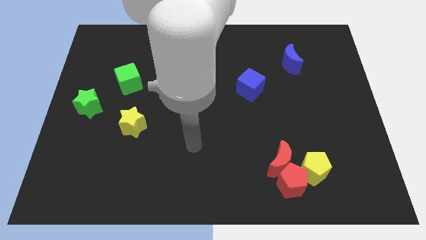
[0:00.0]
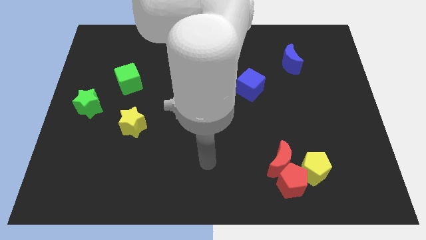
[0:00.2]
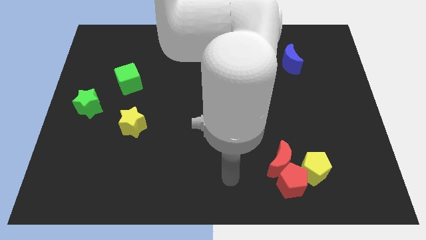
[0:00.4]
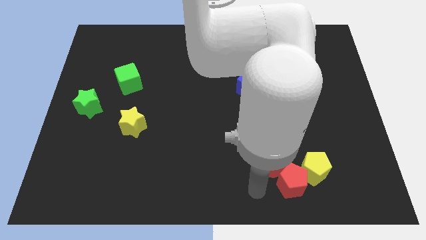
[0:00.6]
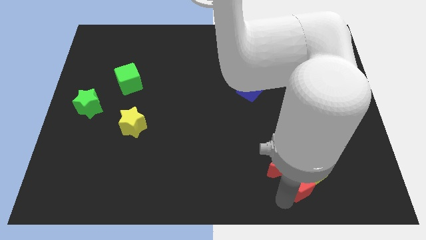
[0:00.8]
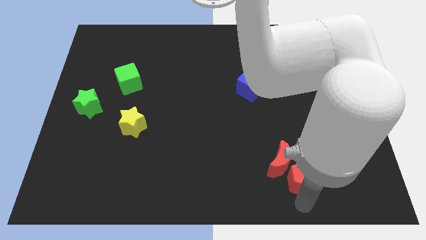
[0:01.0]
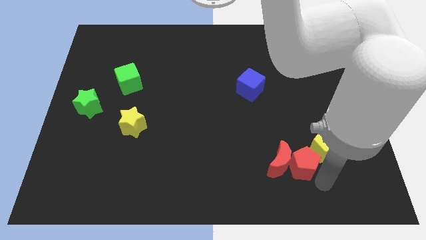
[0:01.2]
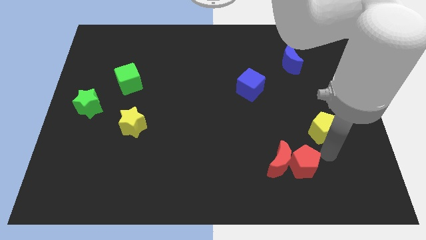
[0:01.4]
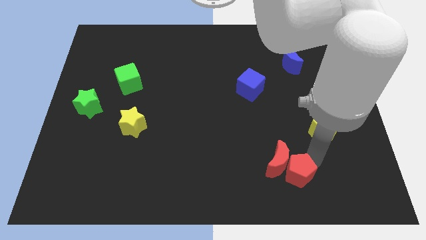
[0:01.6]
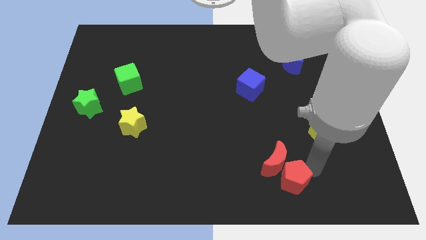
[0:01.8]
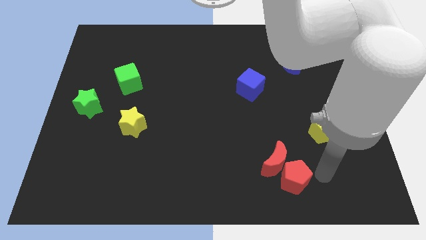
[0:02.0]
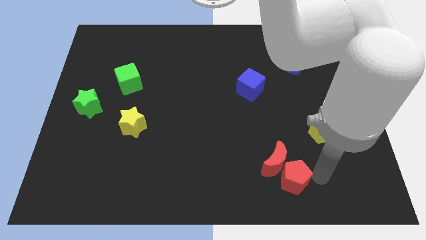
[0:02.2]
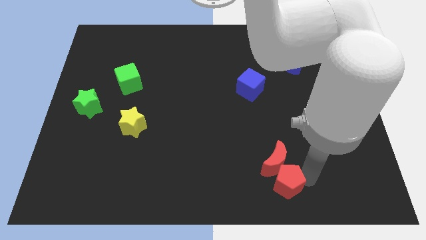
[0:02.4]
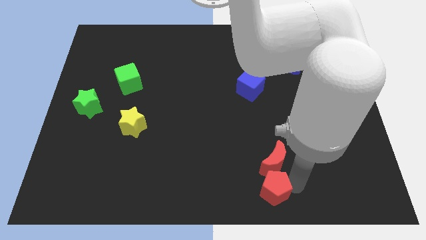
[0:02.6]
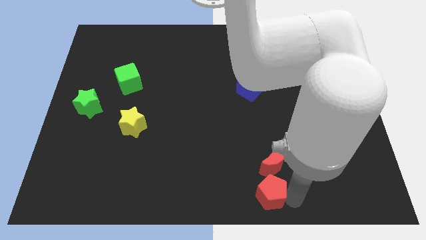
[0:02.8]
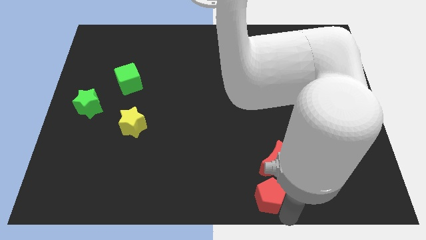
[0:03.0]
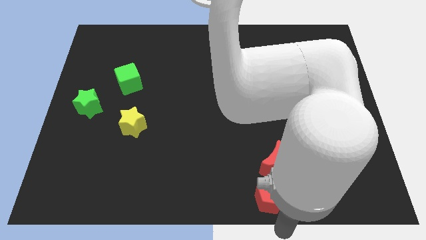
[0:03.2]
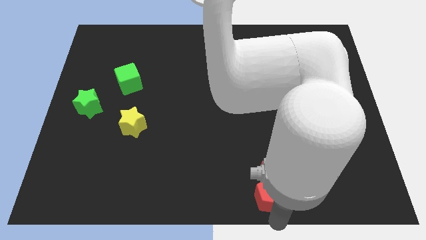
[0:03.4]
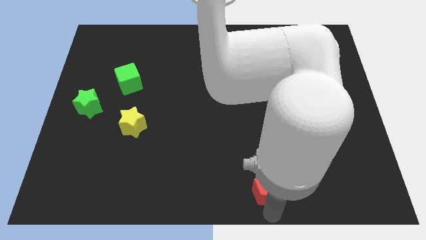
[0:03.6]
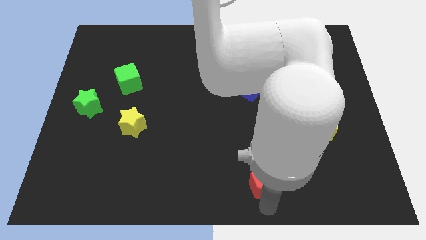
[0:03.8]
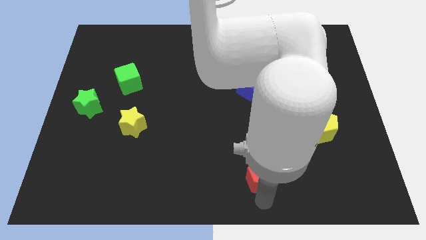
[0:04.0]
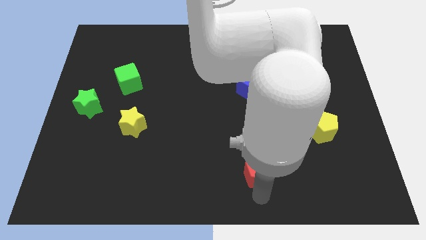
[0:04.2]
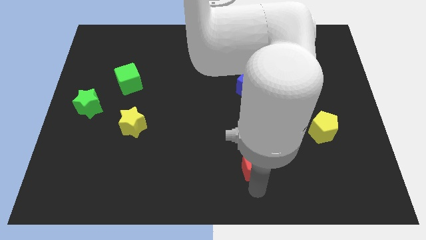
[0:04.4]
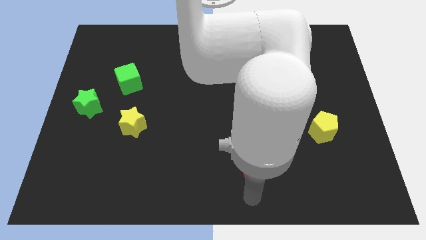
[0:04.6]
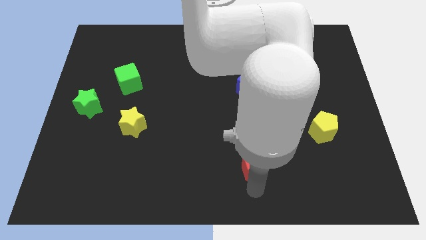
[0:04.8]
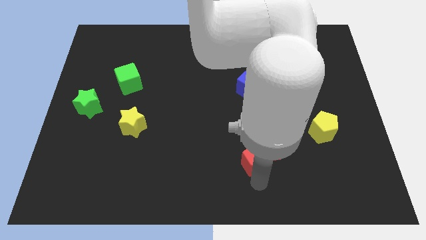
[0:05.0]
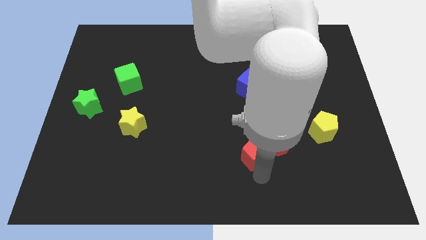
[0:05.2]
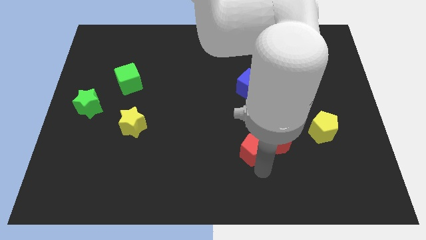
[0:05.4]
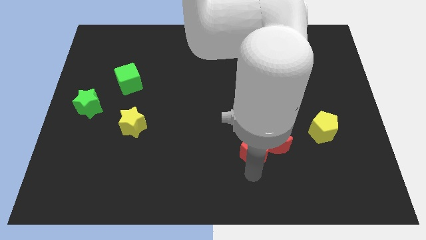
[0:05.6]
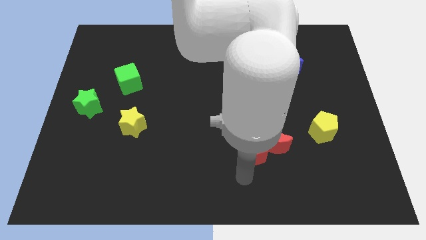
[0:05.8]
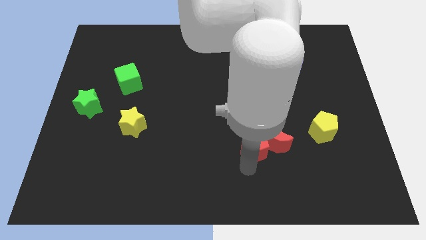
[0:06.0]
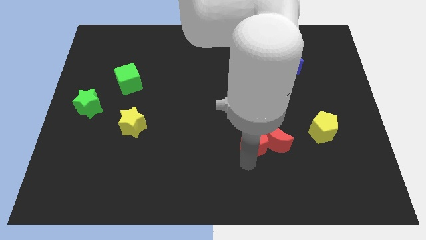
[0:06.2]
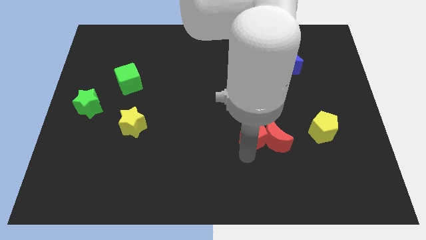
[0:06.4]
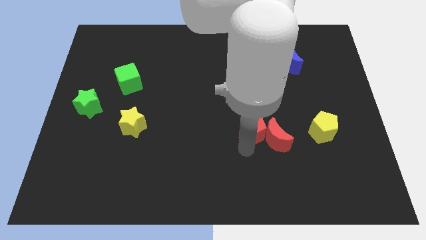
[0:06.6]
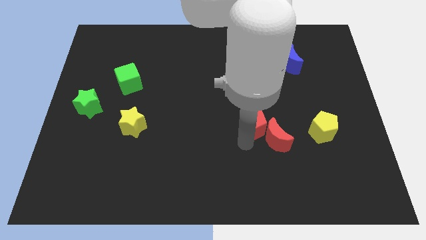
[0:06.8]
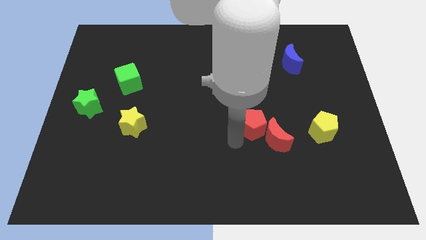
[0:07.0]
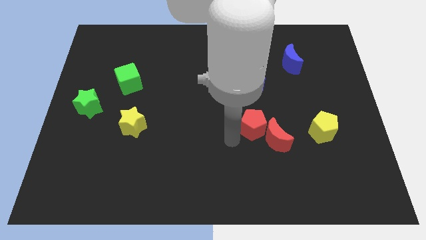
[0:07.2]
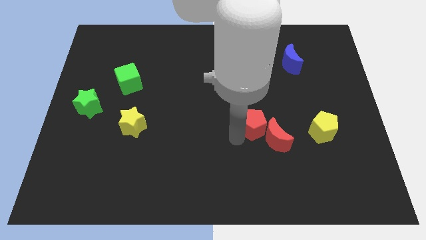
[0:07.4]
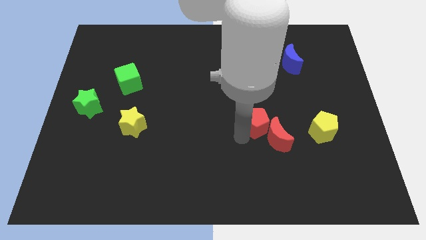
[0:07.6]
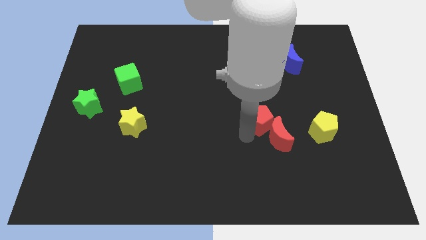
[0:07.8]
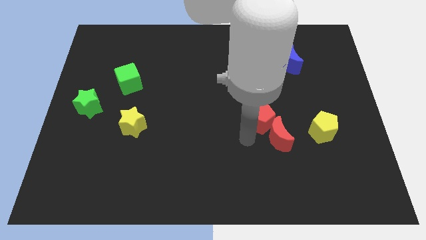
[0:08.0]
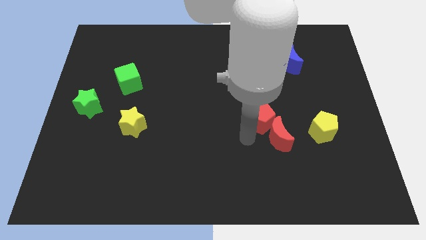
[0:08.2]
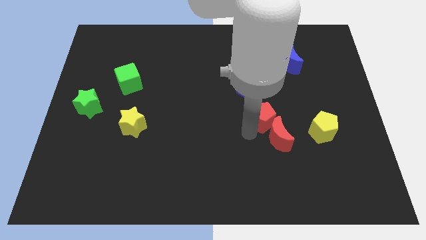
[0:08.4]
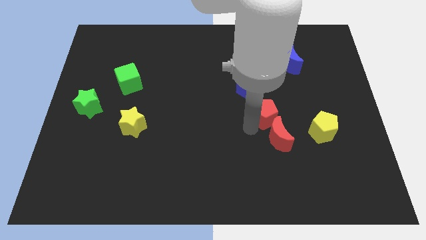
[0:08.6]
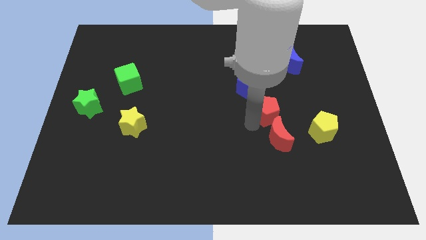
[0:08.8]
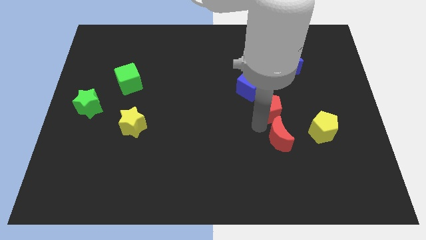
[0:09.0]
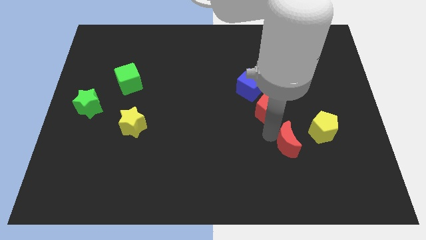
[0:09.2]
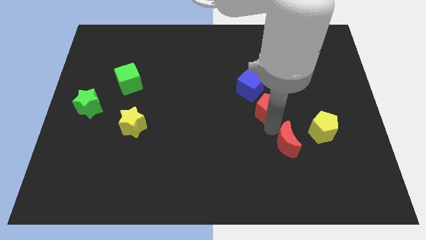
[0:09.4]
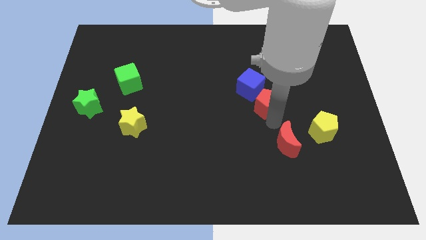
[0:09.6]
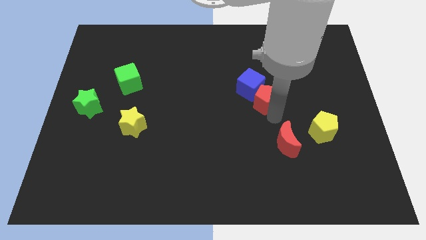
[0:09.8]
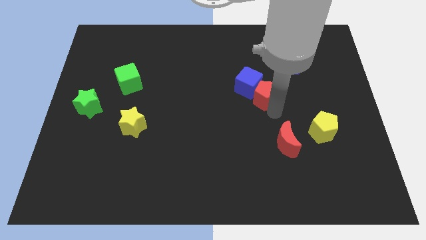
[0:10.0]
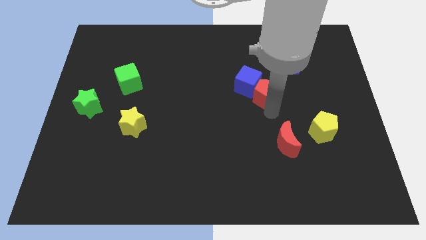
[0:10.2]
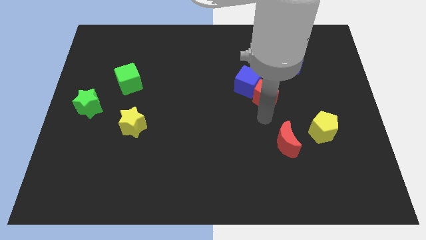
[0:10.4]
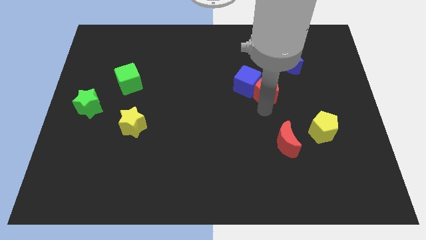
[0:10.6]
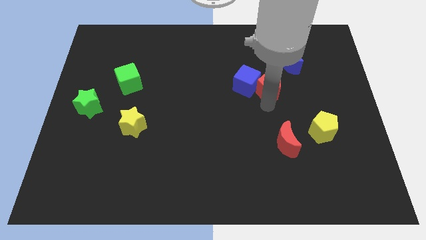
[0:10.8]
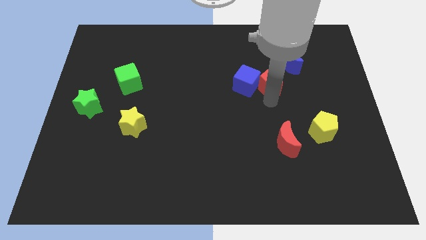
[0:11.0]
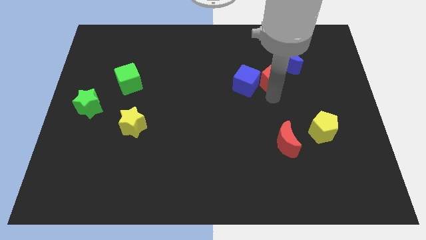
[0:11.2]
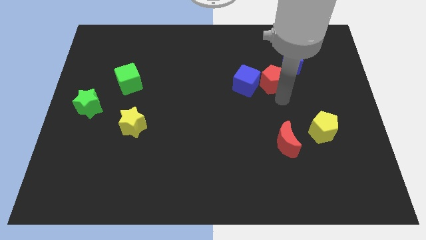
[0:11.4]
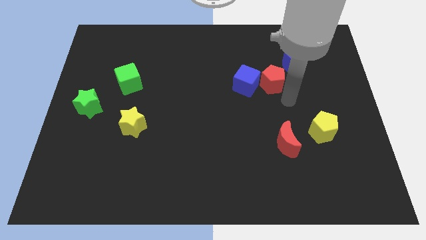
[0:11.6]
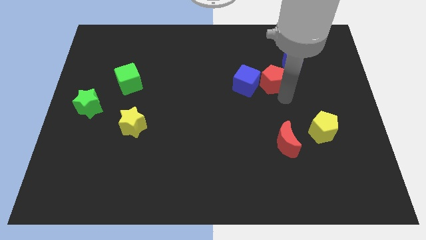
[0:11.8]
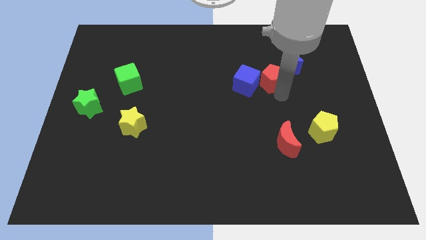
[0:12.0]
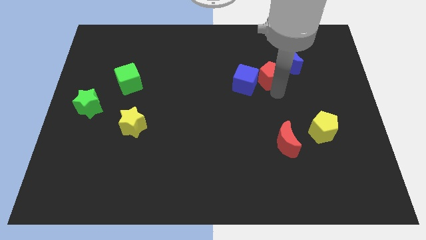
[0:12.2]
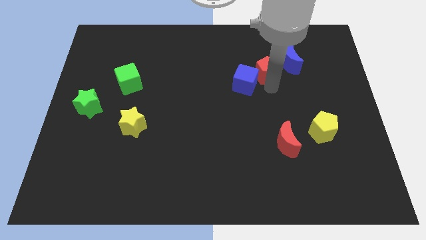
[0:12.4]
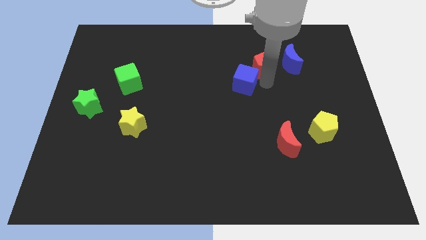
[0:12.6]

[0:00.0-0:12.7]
slide the red pentagon to the top side of the blue cube
